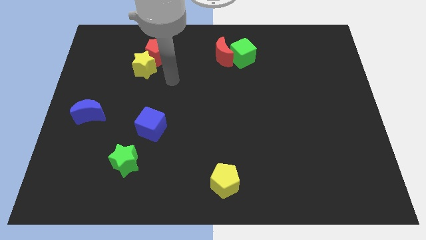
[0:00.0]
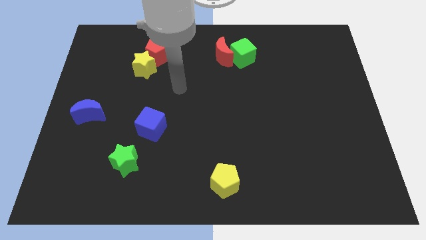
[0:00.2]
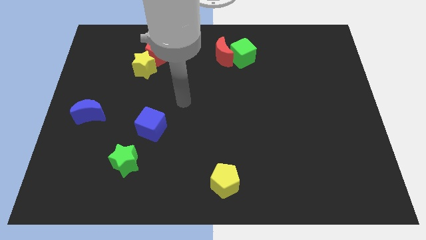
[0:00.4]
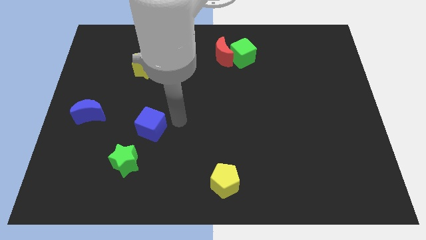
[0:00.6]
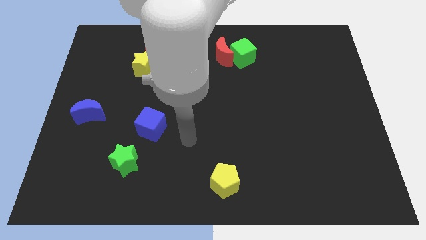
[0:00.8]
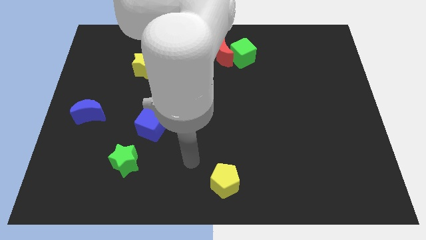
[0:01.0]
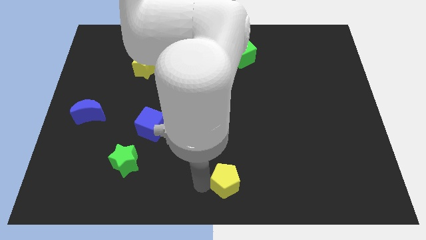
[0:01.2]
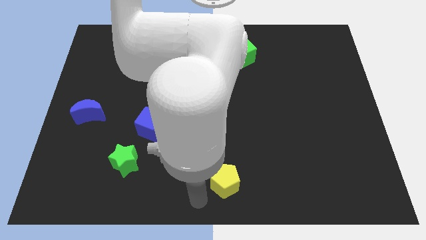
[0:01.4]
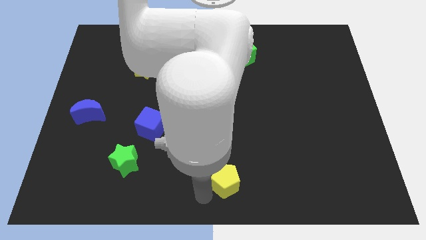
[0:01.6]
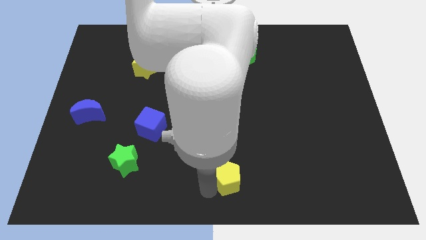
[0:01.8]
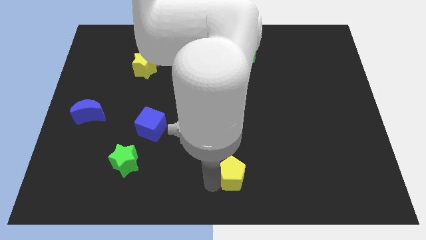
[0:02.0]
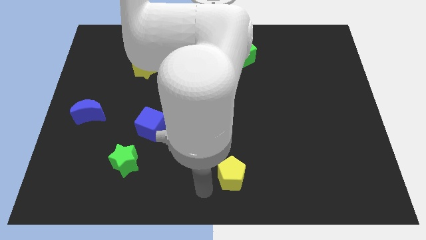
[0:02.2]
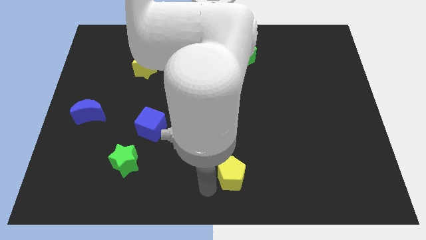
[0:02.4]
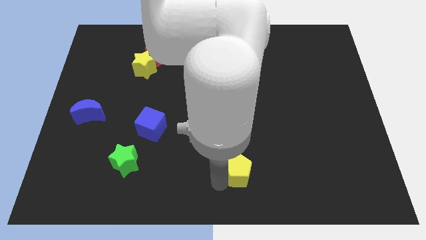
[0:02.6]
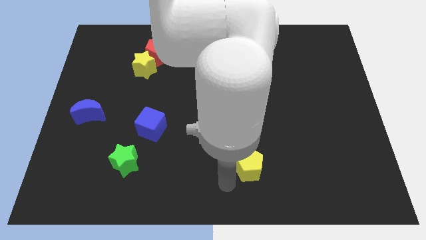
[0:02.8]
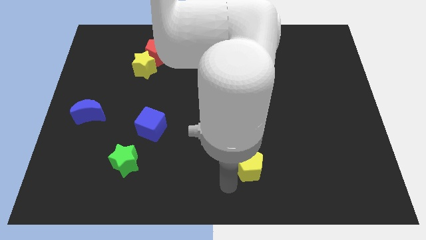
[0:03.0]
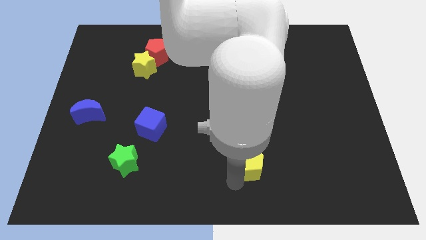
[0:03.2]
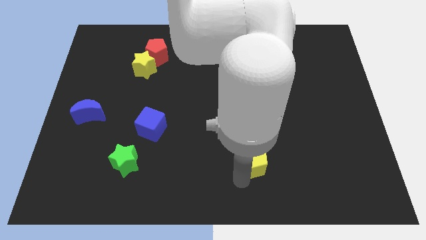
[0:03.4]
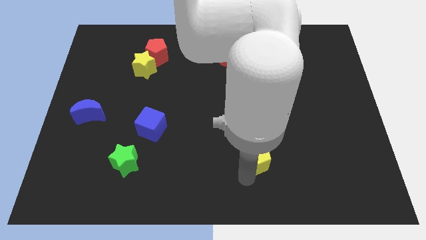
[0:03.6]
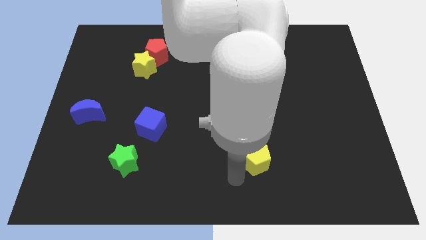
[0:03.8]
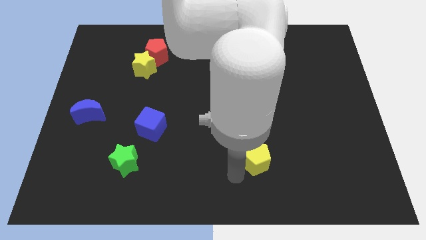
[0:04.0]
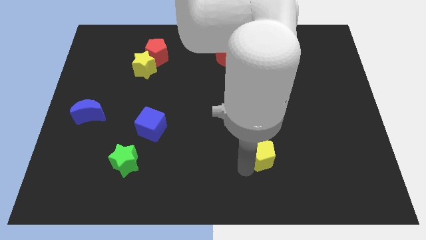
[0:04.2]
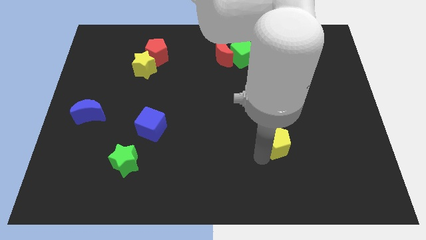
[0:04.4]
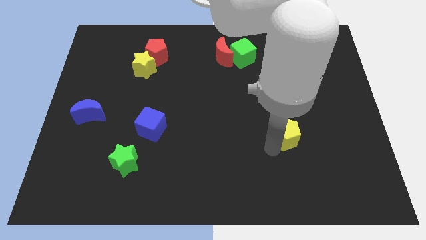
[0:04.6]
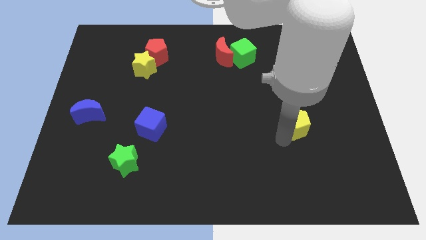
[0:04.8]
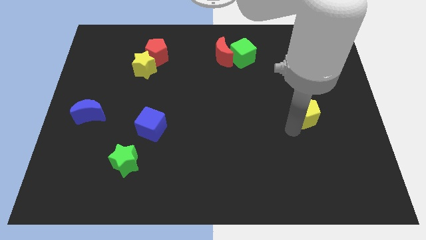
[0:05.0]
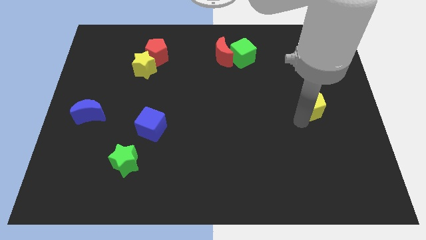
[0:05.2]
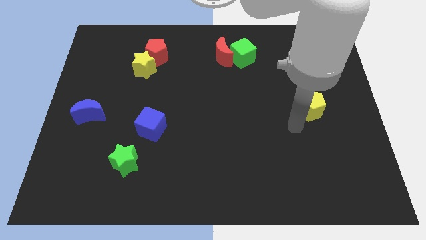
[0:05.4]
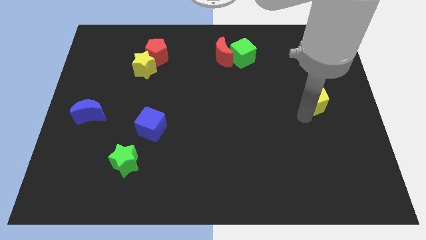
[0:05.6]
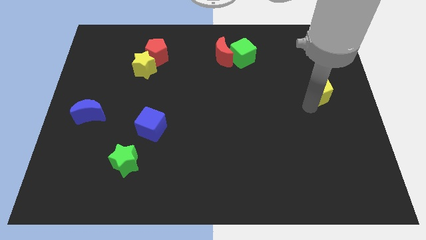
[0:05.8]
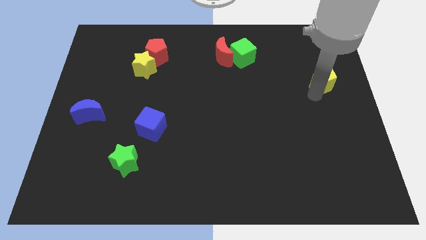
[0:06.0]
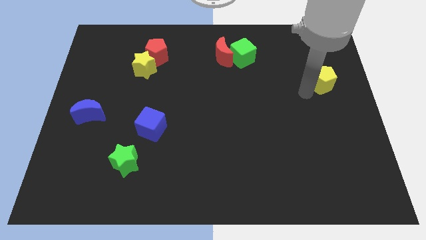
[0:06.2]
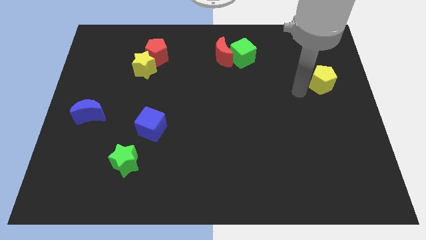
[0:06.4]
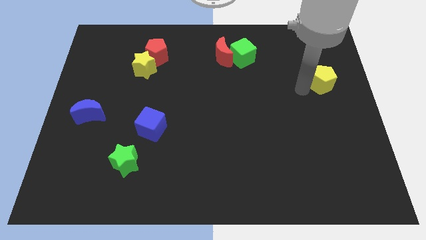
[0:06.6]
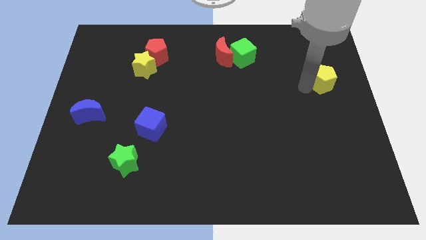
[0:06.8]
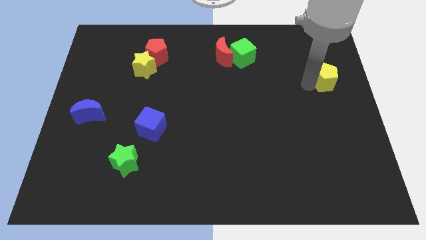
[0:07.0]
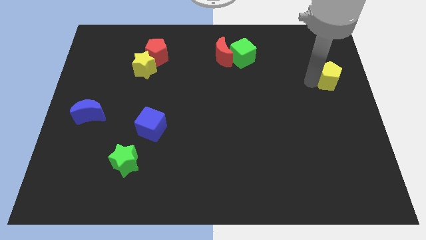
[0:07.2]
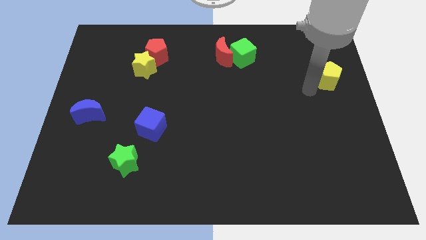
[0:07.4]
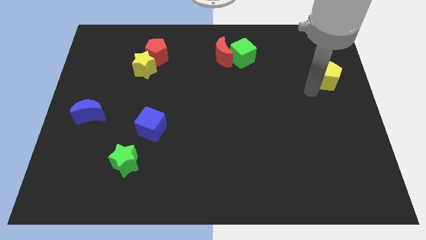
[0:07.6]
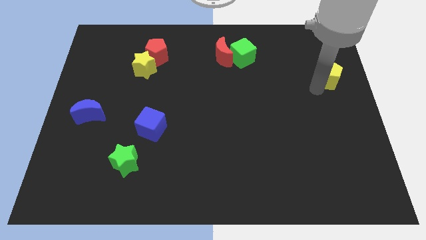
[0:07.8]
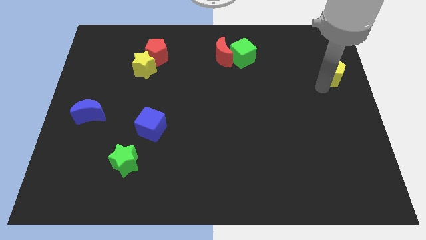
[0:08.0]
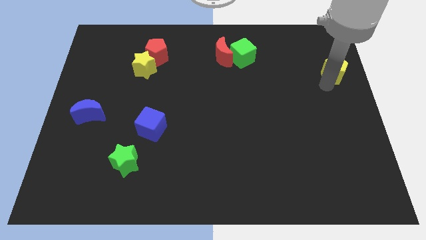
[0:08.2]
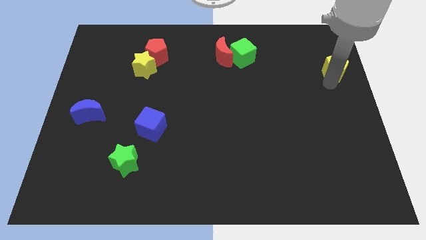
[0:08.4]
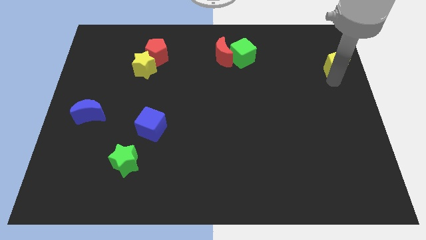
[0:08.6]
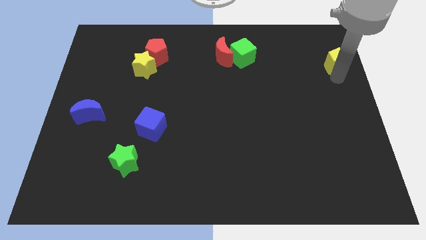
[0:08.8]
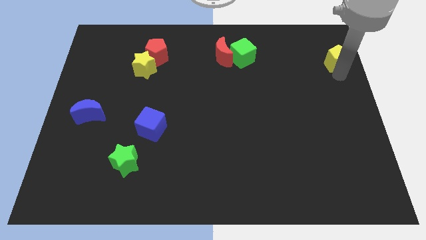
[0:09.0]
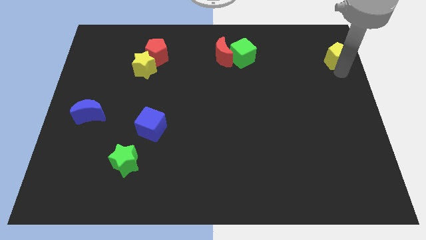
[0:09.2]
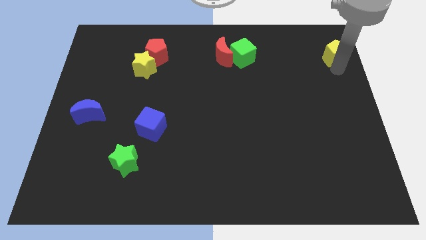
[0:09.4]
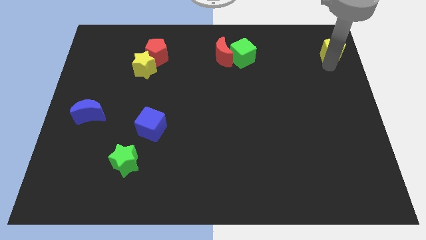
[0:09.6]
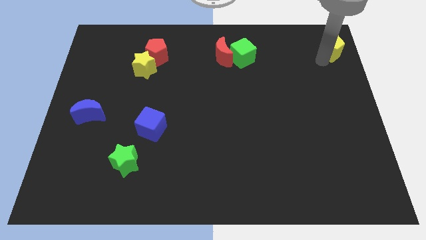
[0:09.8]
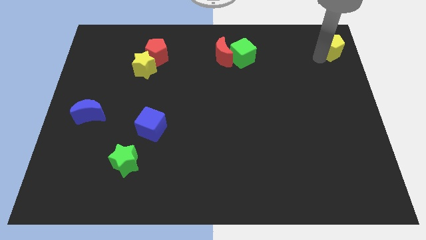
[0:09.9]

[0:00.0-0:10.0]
push the yellow pentagon to the upper right corner
